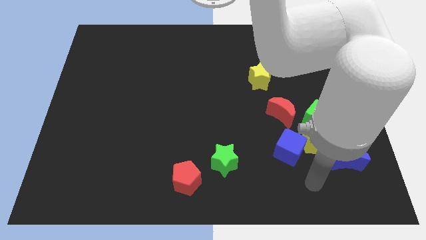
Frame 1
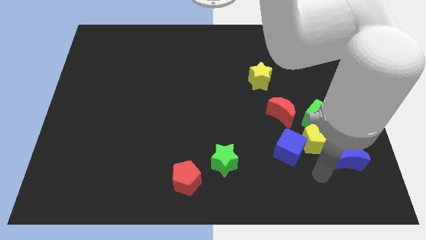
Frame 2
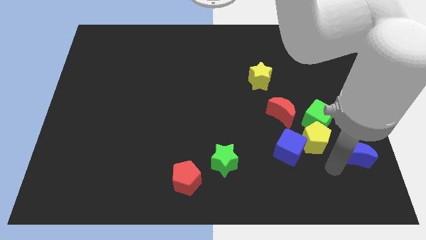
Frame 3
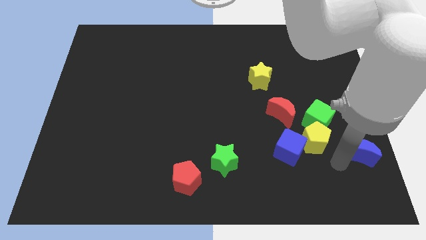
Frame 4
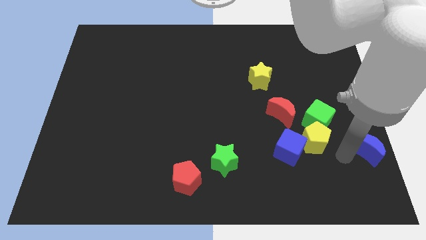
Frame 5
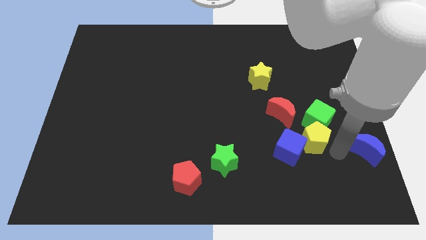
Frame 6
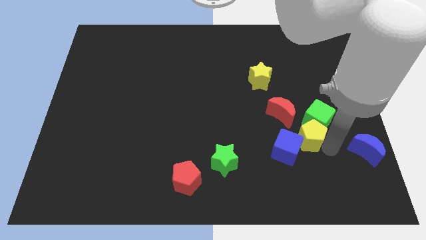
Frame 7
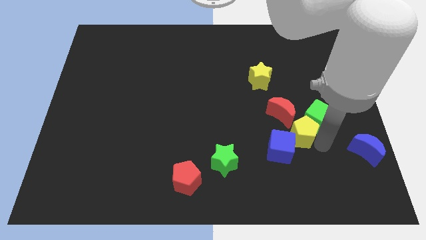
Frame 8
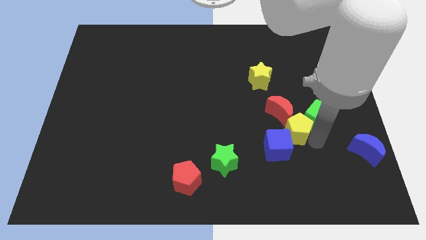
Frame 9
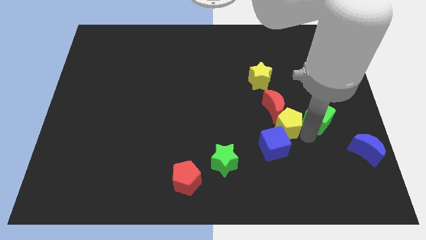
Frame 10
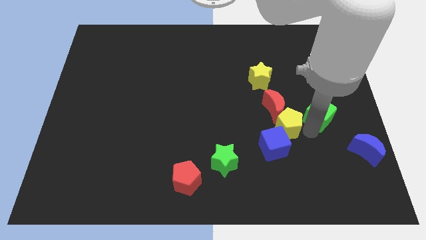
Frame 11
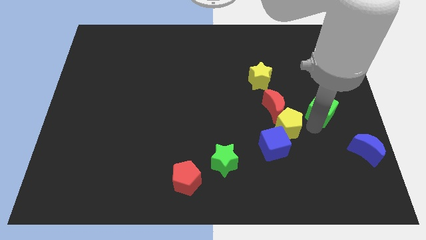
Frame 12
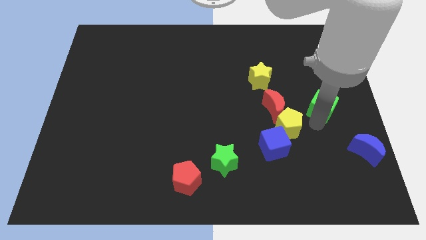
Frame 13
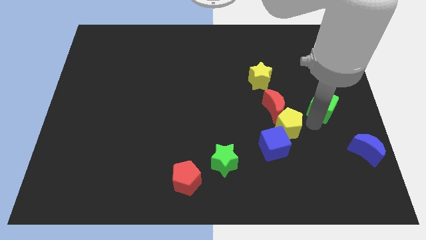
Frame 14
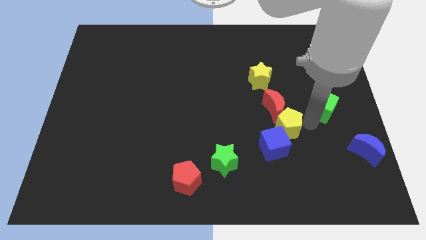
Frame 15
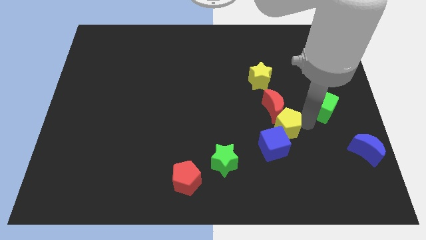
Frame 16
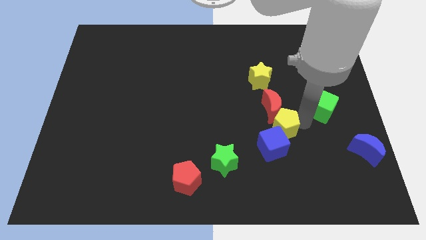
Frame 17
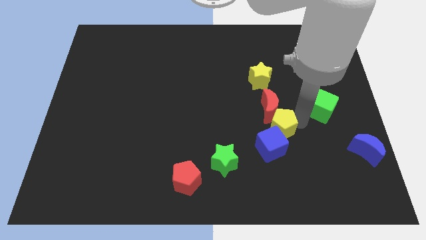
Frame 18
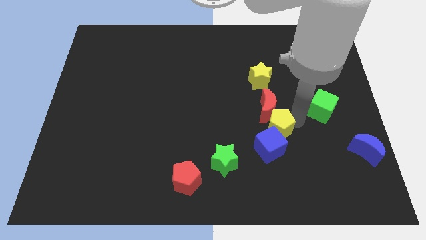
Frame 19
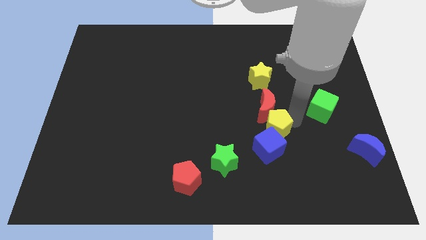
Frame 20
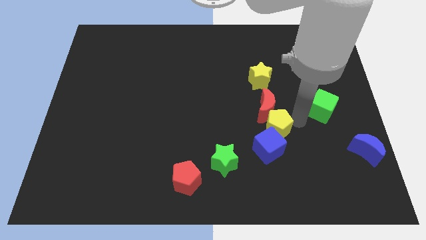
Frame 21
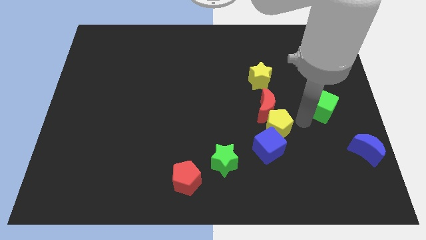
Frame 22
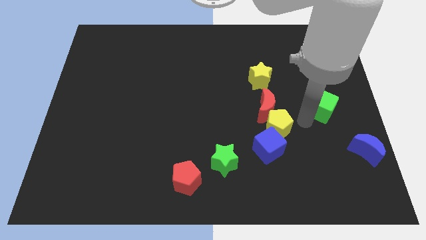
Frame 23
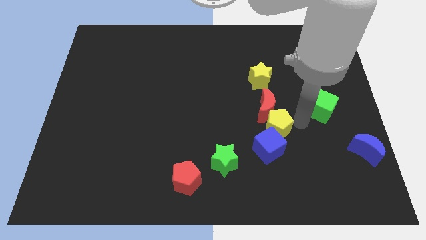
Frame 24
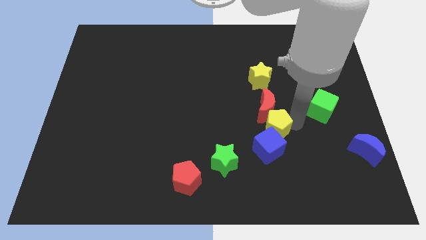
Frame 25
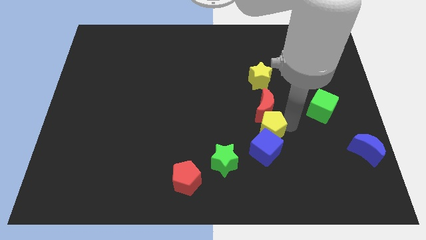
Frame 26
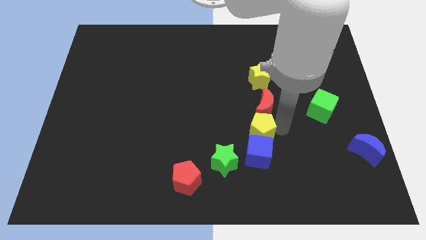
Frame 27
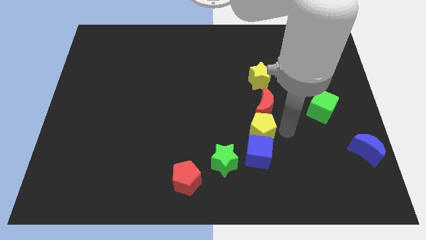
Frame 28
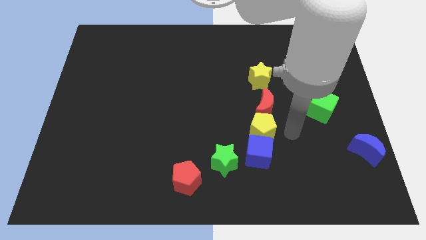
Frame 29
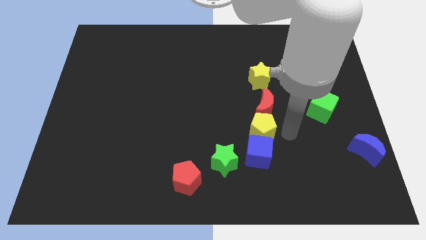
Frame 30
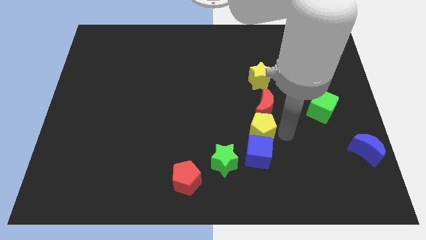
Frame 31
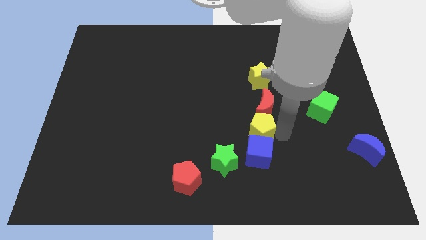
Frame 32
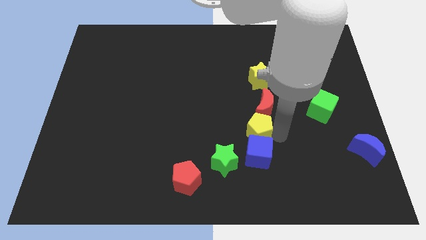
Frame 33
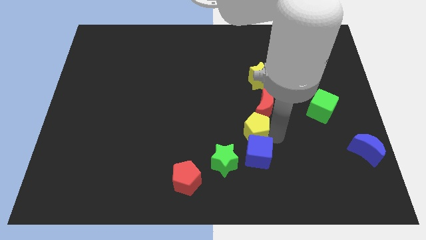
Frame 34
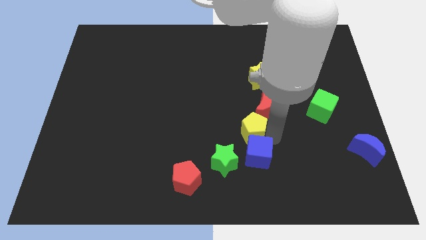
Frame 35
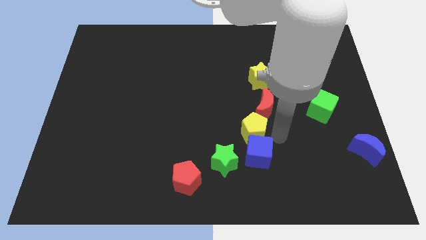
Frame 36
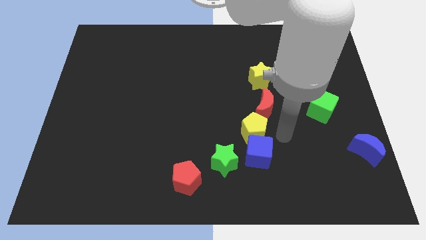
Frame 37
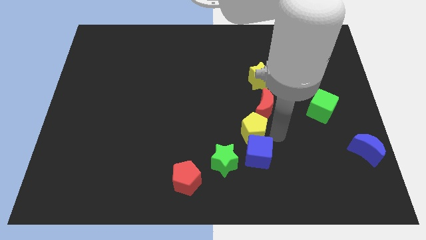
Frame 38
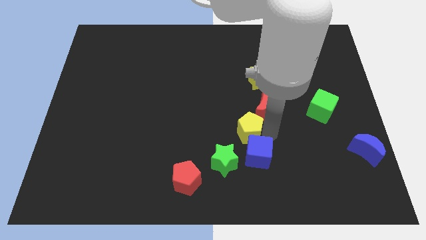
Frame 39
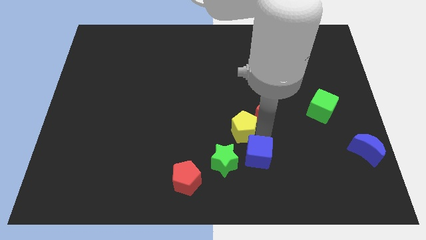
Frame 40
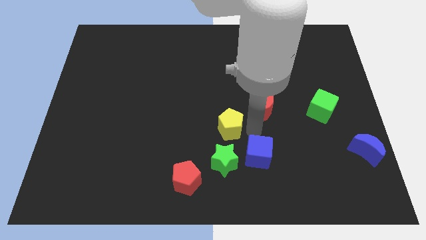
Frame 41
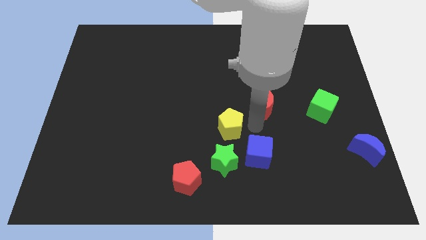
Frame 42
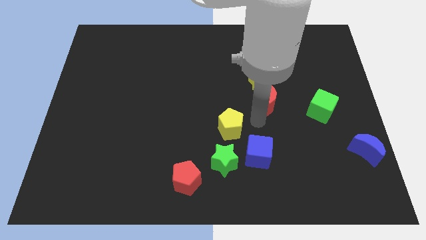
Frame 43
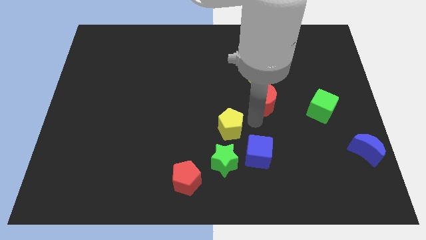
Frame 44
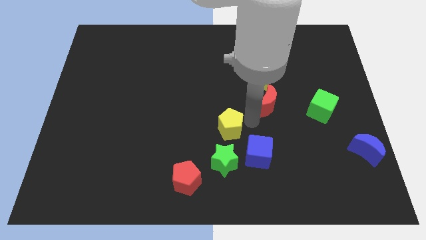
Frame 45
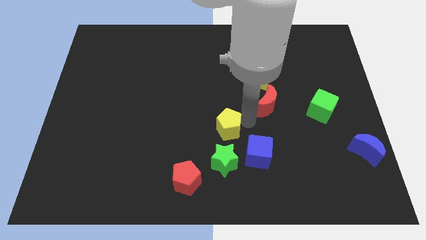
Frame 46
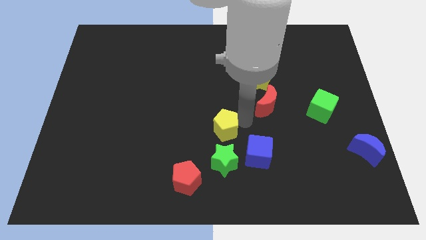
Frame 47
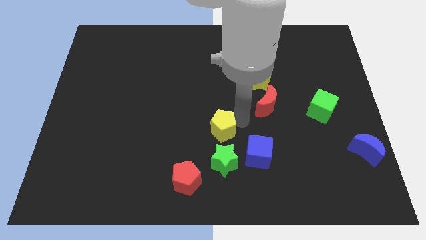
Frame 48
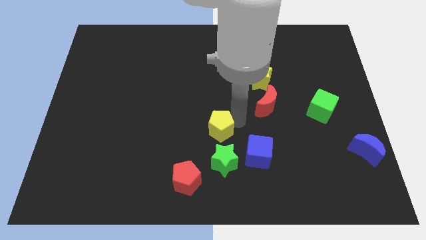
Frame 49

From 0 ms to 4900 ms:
move the yellow pentagon to the left

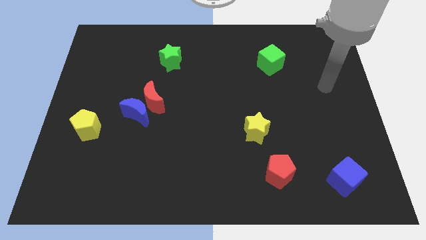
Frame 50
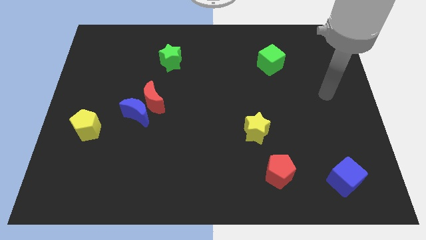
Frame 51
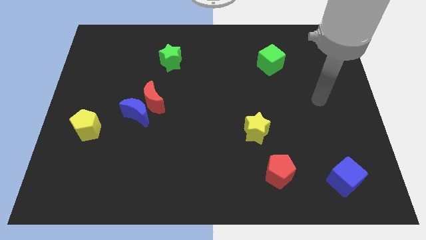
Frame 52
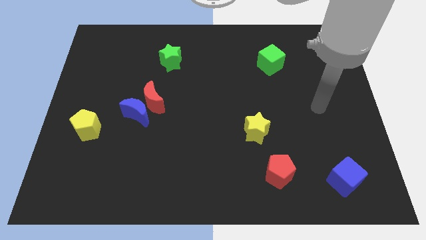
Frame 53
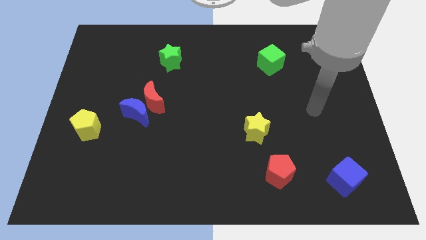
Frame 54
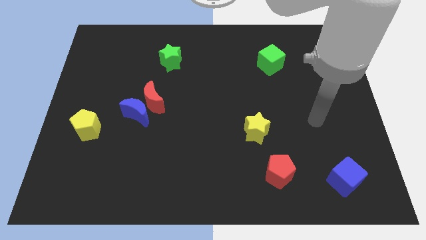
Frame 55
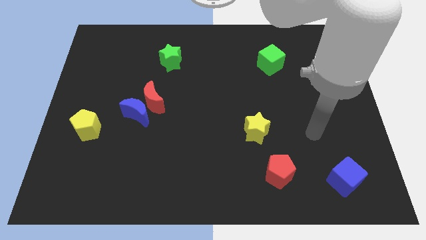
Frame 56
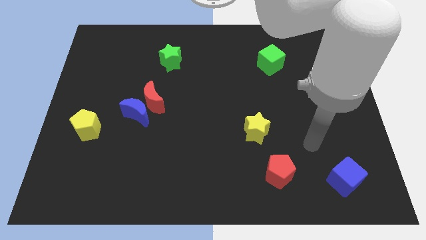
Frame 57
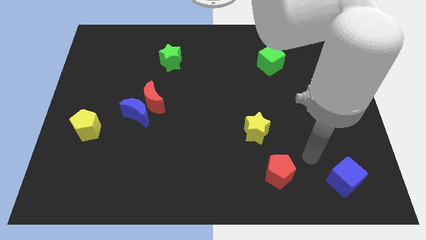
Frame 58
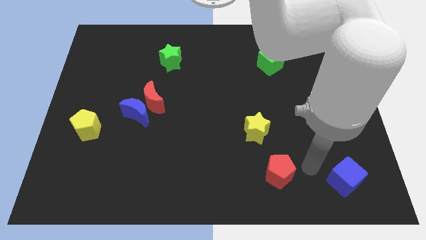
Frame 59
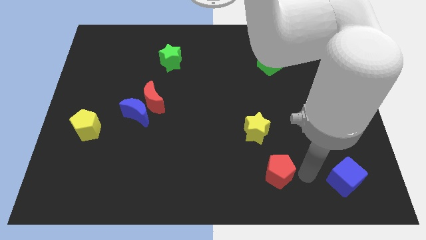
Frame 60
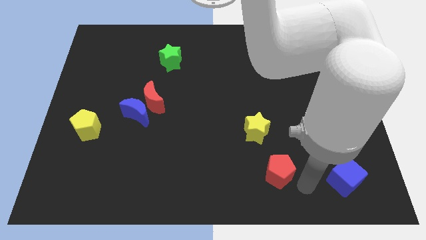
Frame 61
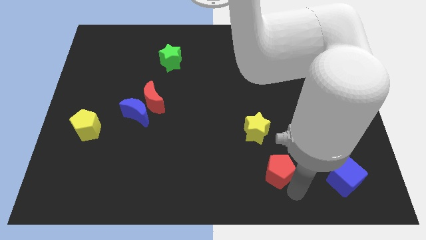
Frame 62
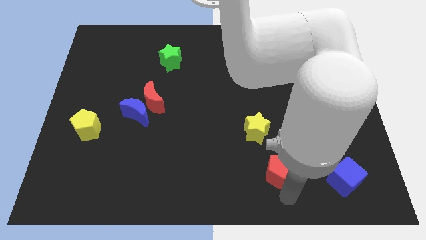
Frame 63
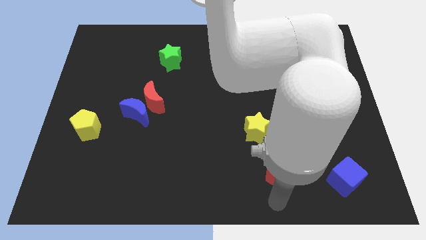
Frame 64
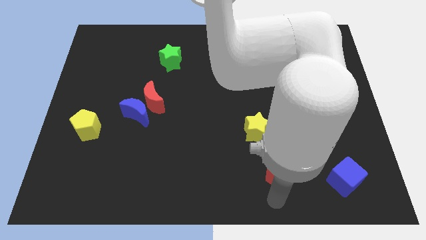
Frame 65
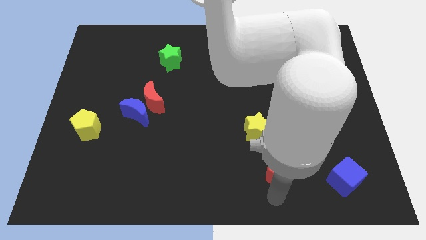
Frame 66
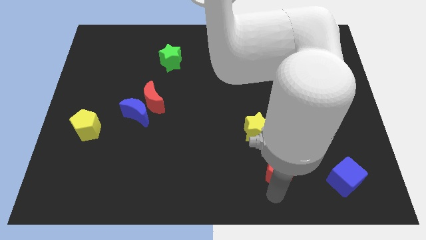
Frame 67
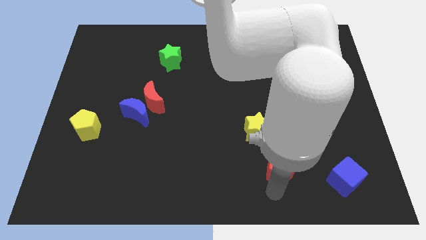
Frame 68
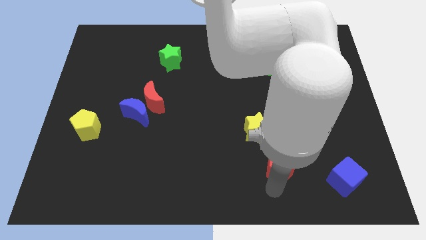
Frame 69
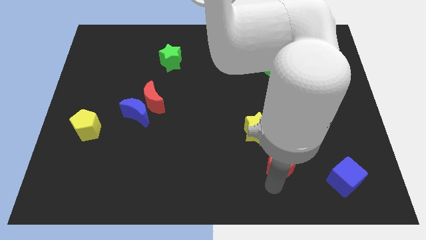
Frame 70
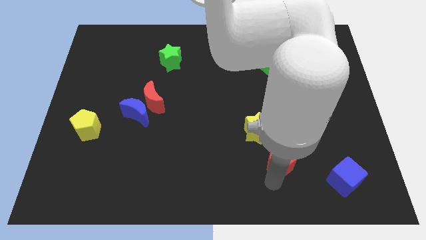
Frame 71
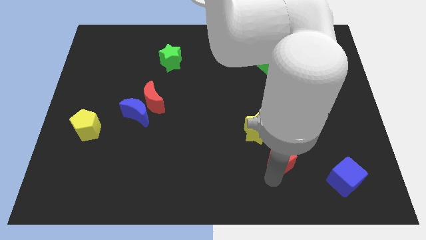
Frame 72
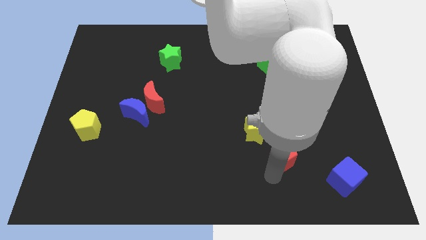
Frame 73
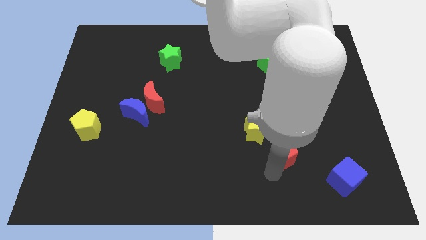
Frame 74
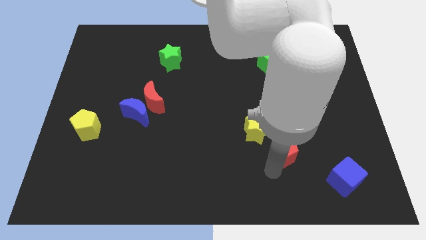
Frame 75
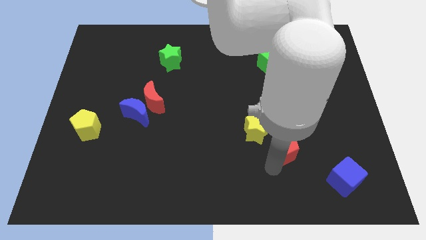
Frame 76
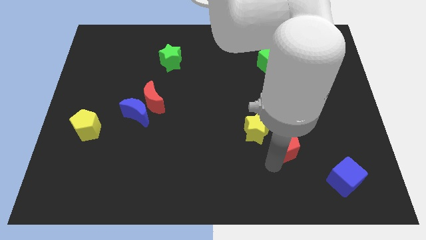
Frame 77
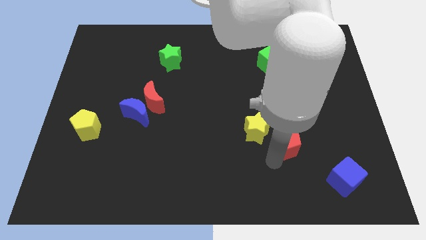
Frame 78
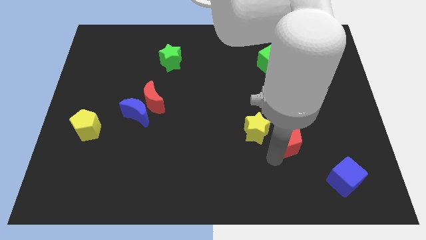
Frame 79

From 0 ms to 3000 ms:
move the red pentagon upwards a bit
